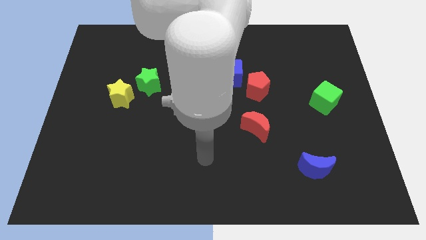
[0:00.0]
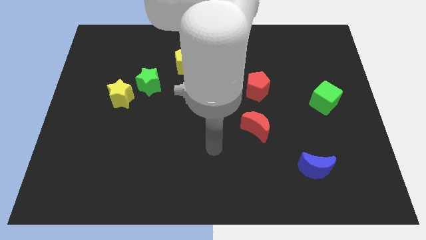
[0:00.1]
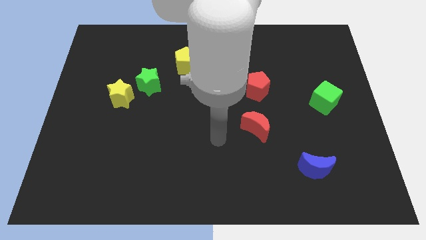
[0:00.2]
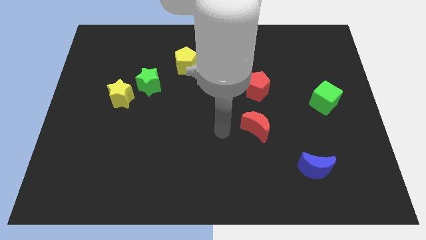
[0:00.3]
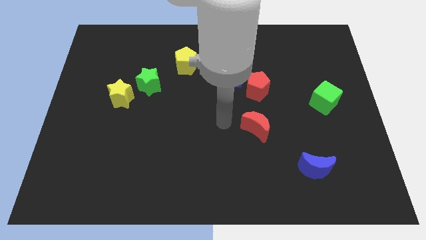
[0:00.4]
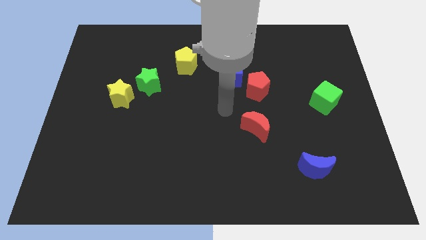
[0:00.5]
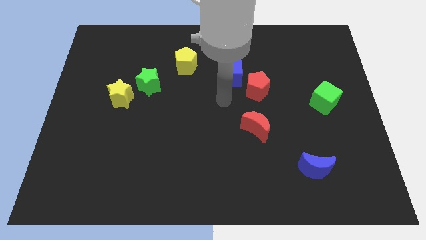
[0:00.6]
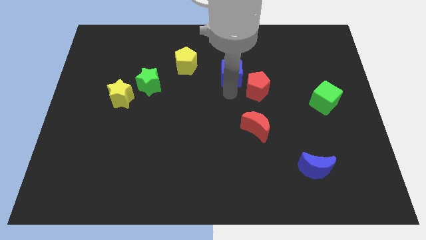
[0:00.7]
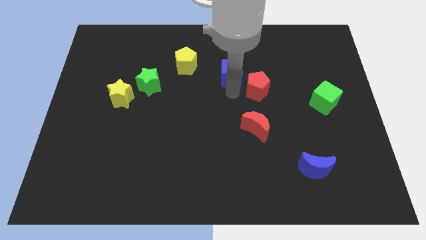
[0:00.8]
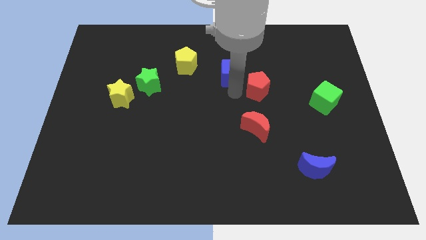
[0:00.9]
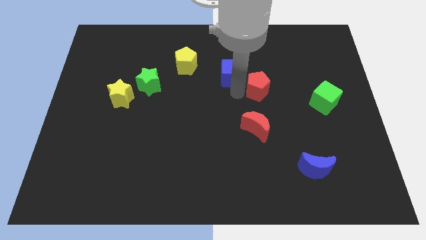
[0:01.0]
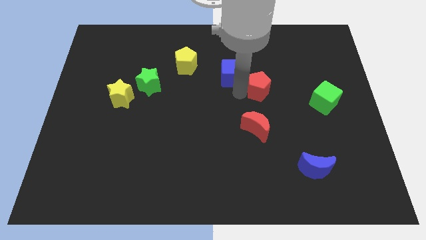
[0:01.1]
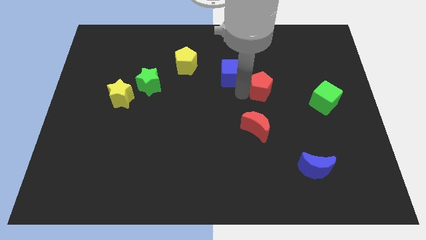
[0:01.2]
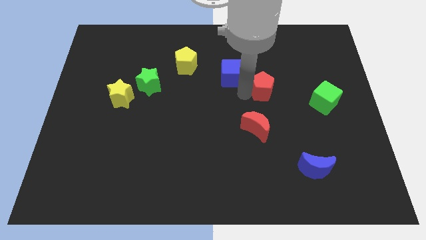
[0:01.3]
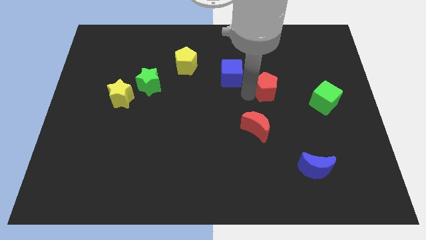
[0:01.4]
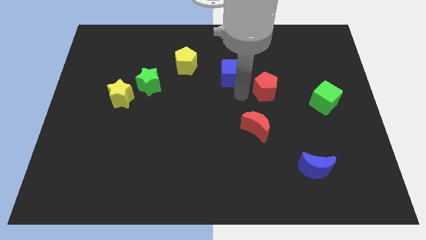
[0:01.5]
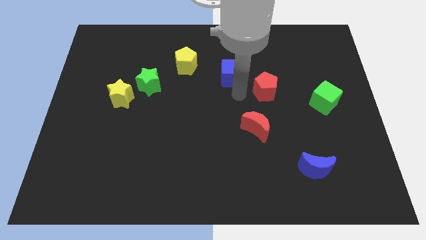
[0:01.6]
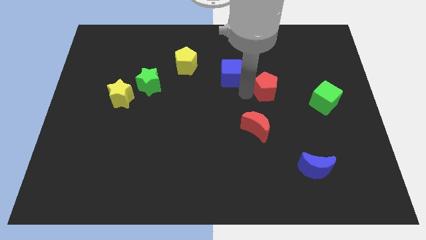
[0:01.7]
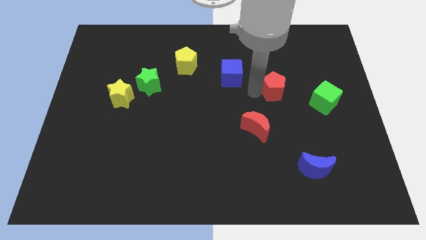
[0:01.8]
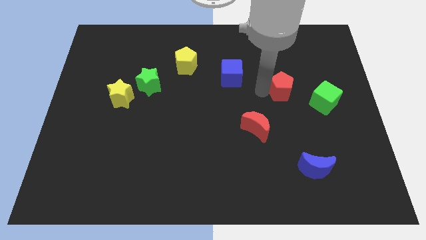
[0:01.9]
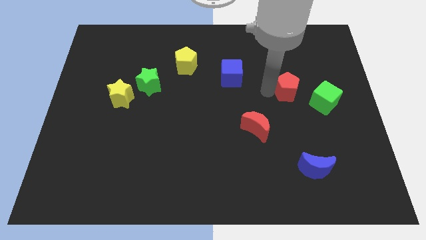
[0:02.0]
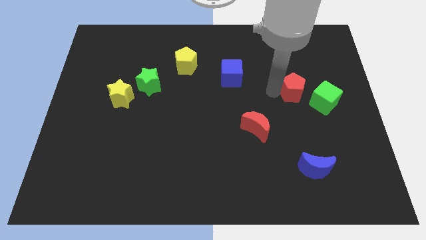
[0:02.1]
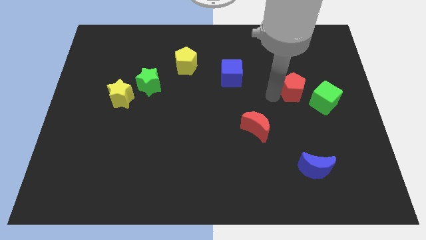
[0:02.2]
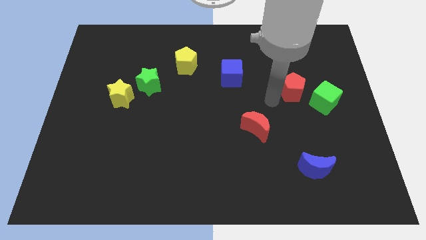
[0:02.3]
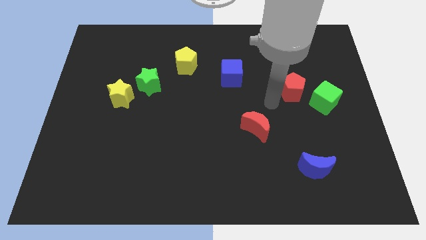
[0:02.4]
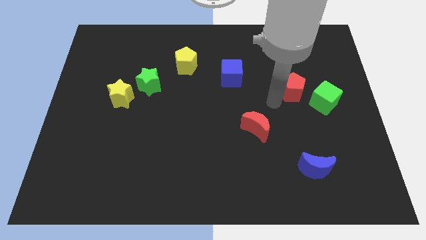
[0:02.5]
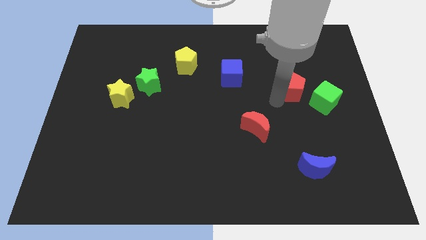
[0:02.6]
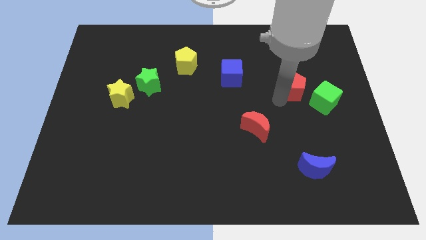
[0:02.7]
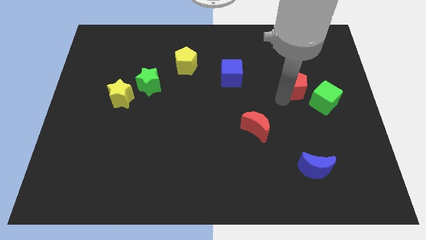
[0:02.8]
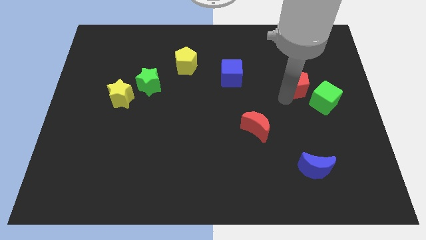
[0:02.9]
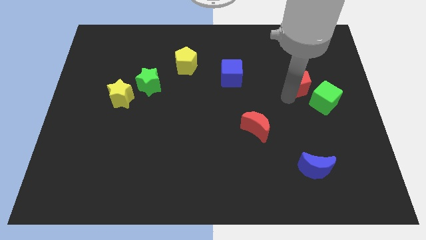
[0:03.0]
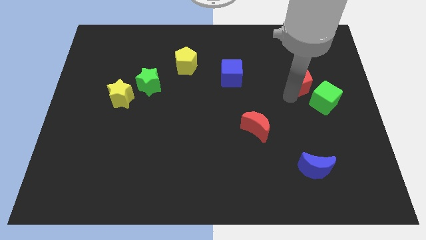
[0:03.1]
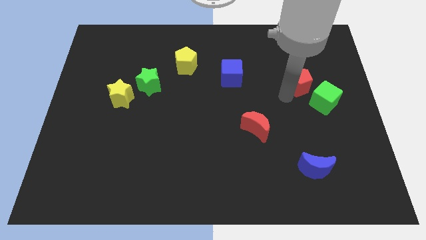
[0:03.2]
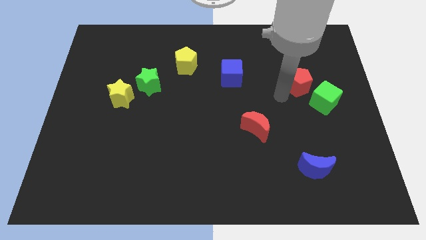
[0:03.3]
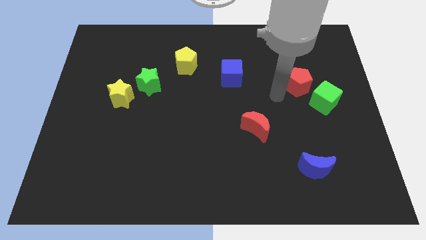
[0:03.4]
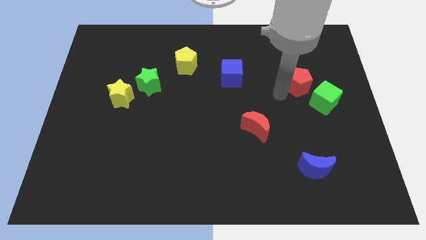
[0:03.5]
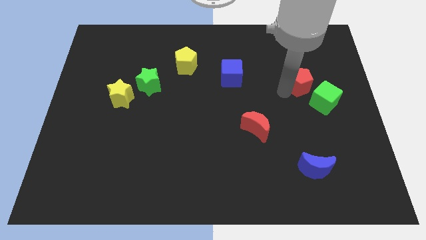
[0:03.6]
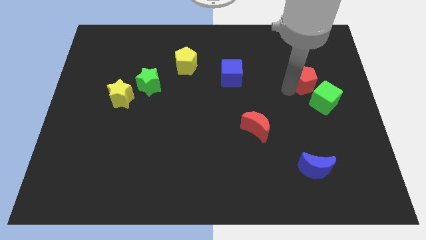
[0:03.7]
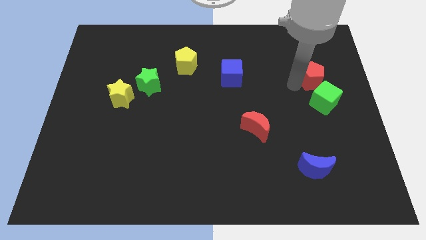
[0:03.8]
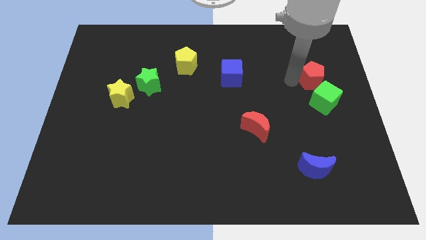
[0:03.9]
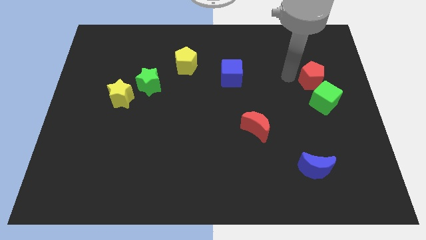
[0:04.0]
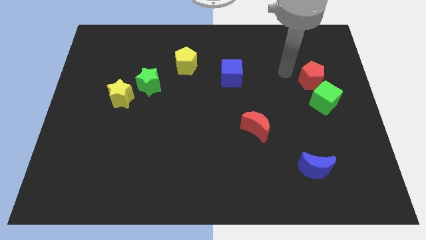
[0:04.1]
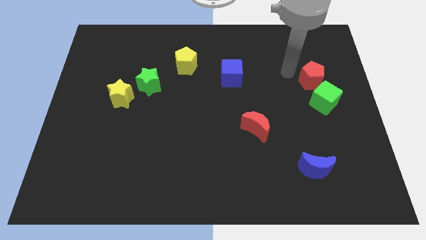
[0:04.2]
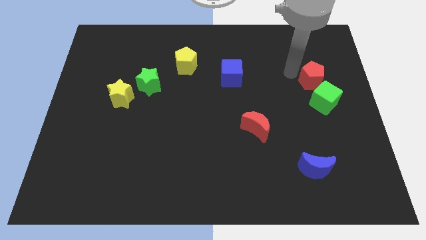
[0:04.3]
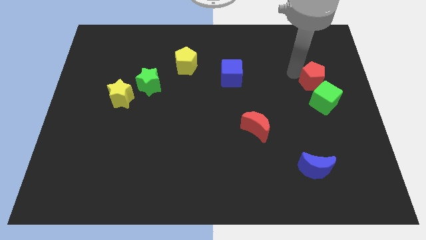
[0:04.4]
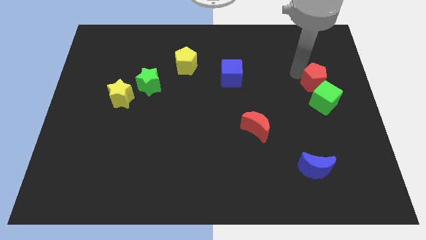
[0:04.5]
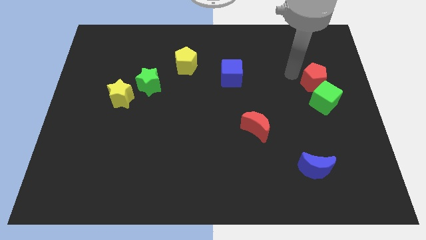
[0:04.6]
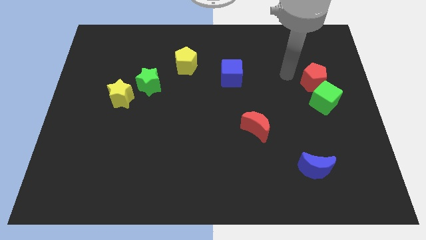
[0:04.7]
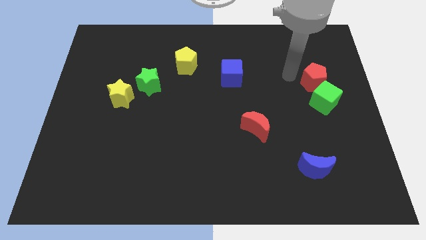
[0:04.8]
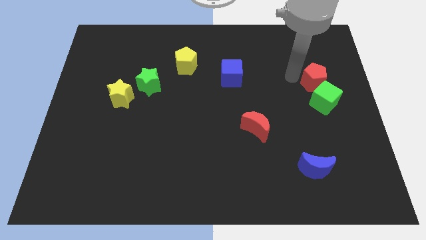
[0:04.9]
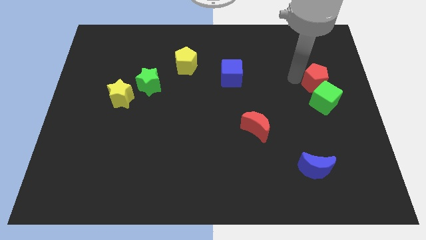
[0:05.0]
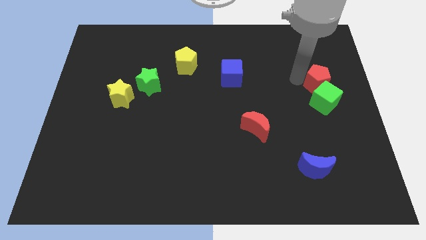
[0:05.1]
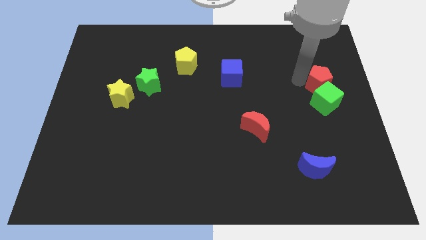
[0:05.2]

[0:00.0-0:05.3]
push the red pentagon to the center right

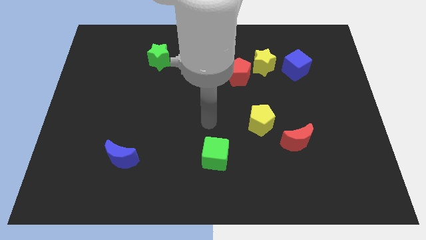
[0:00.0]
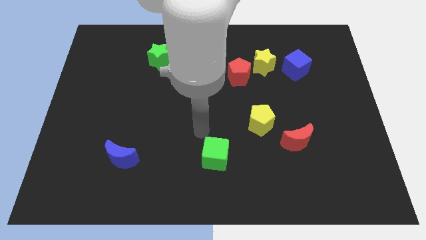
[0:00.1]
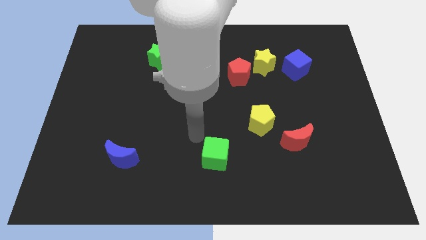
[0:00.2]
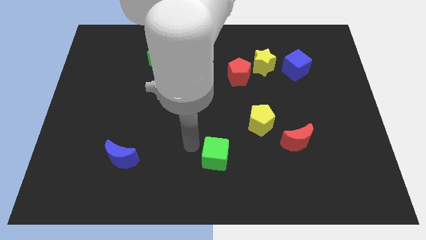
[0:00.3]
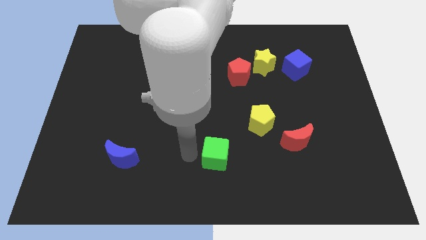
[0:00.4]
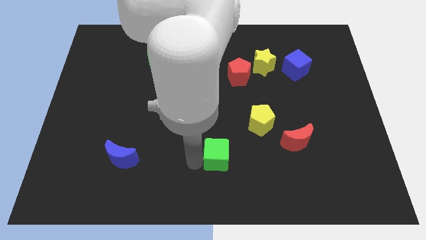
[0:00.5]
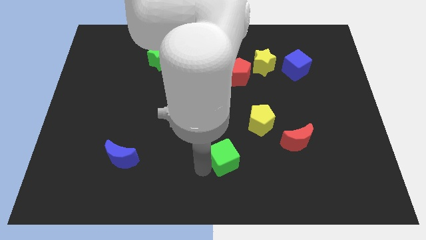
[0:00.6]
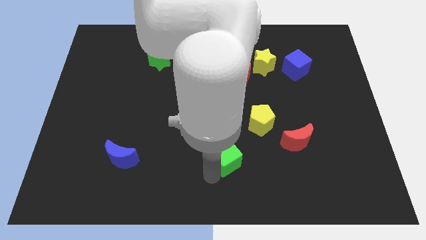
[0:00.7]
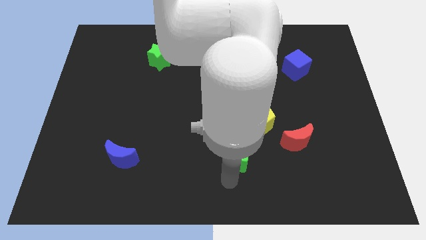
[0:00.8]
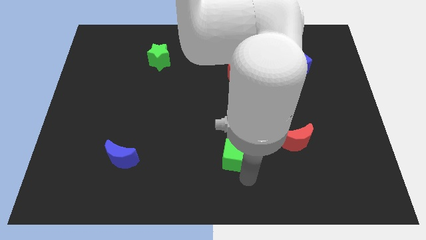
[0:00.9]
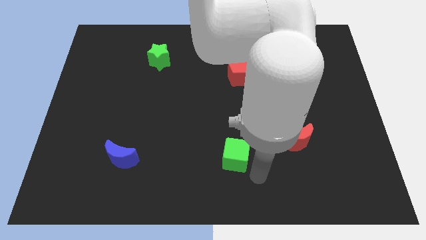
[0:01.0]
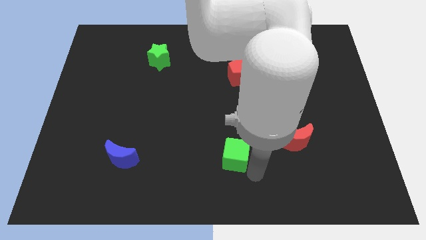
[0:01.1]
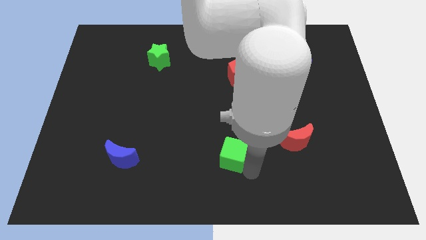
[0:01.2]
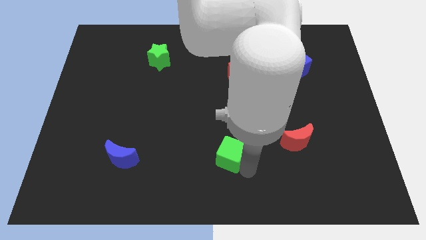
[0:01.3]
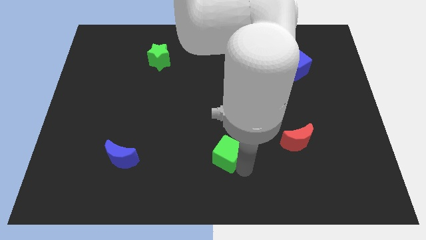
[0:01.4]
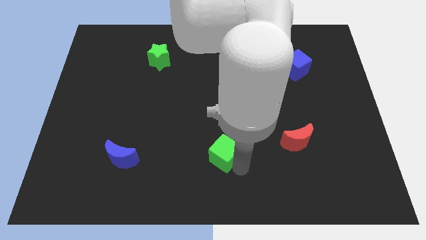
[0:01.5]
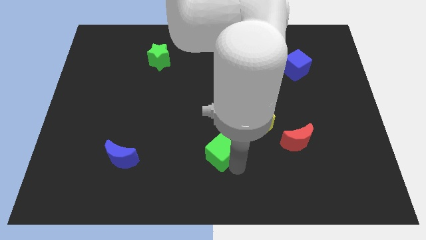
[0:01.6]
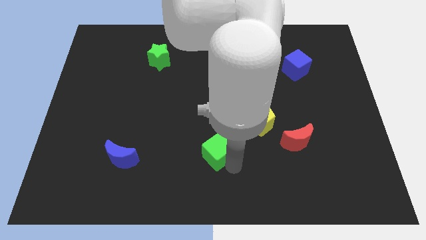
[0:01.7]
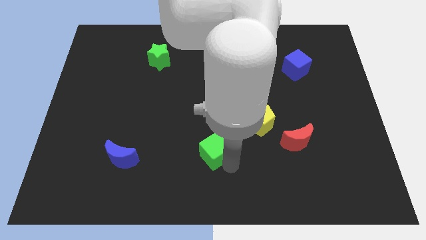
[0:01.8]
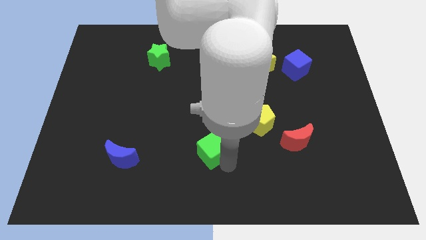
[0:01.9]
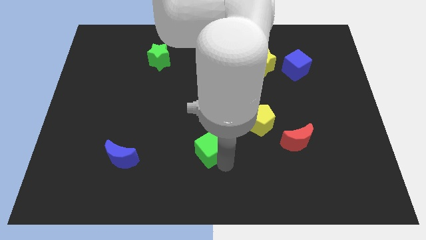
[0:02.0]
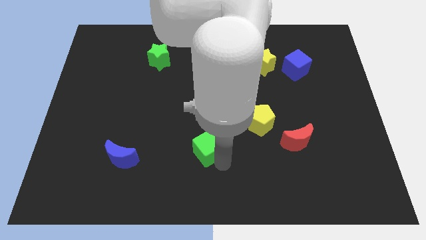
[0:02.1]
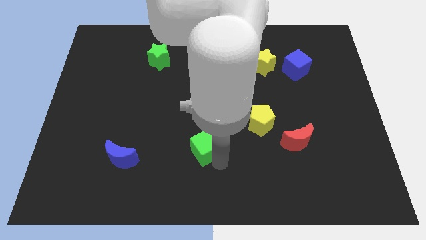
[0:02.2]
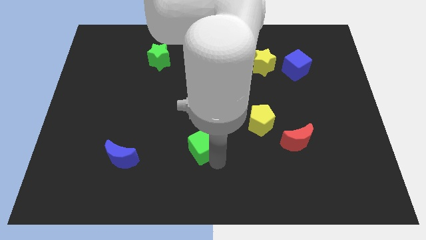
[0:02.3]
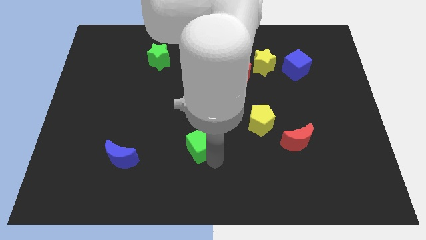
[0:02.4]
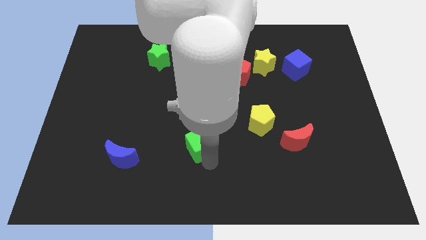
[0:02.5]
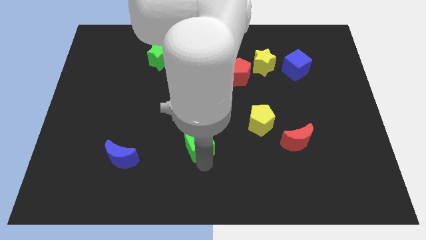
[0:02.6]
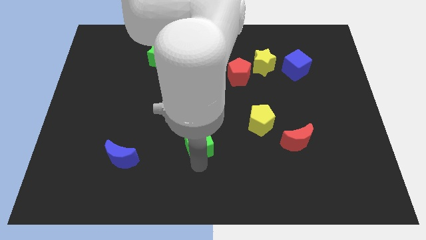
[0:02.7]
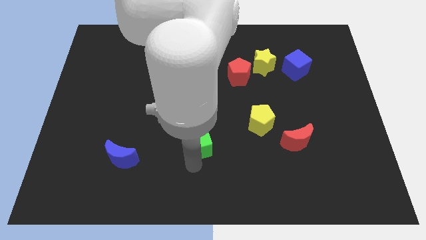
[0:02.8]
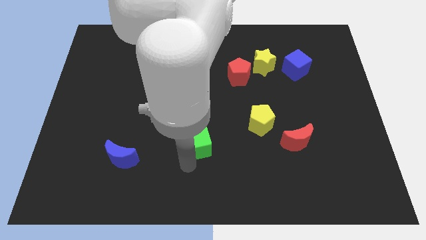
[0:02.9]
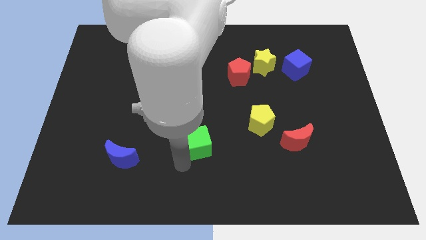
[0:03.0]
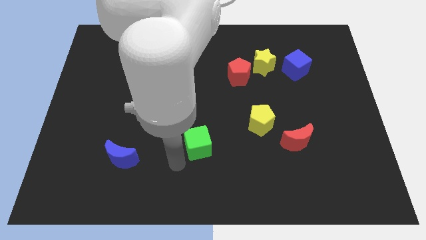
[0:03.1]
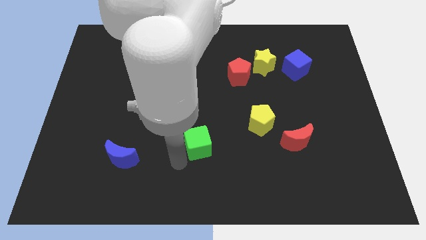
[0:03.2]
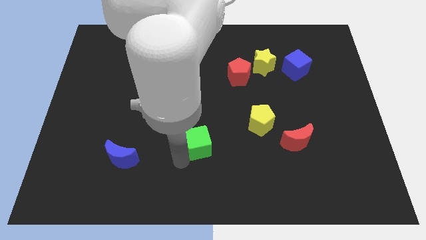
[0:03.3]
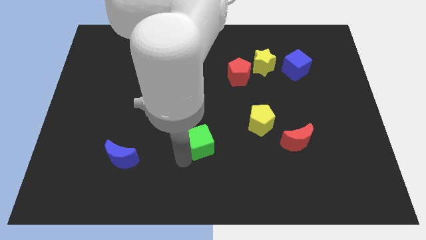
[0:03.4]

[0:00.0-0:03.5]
move the green cube to the center
